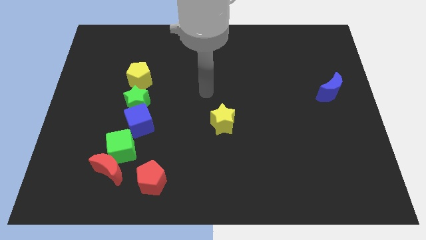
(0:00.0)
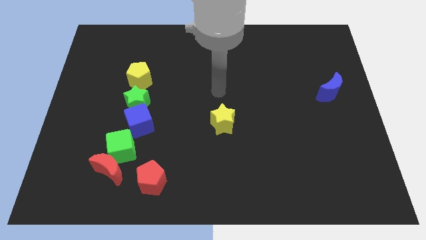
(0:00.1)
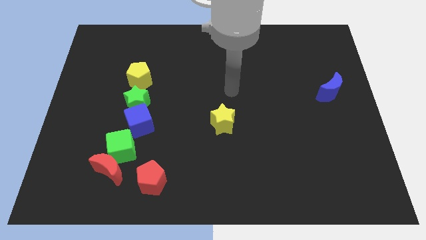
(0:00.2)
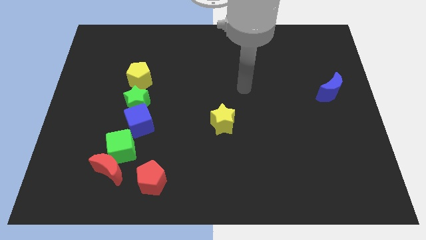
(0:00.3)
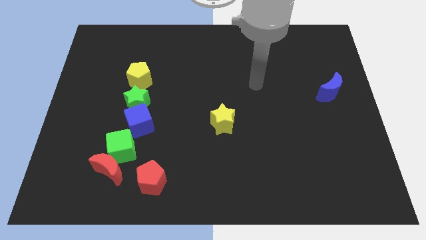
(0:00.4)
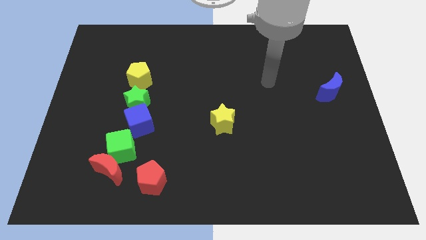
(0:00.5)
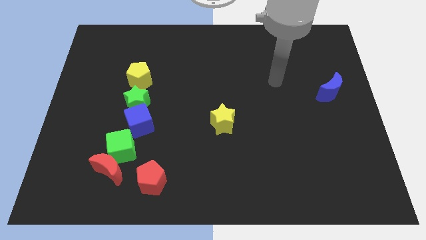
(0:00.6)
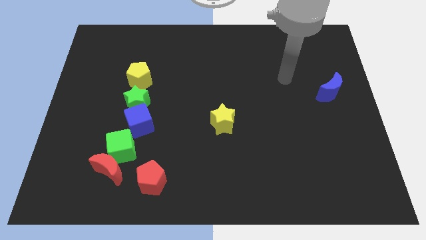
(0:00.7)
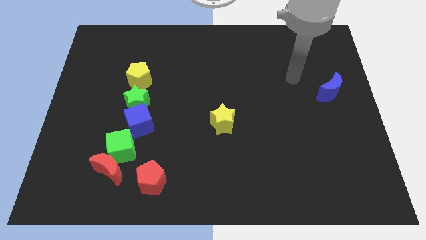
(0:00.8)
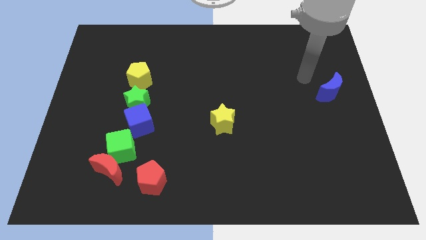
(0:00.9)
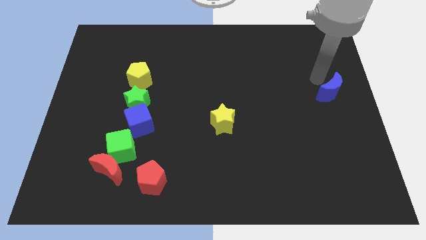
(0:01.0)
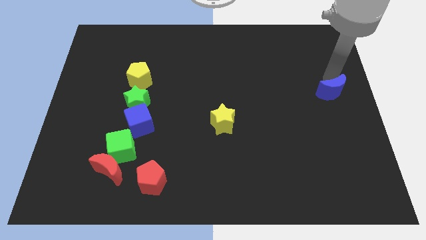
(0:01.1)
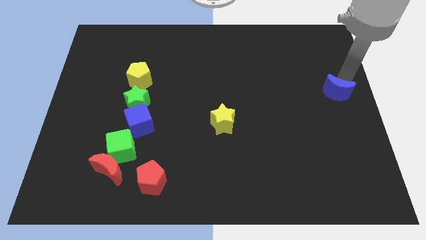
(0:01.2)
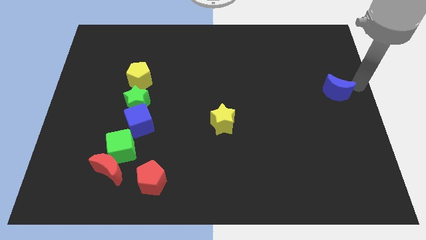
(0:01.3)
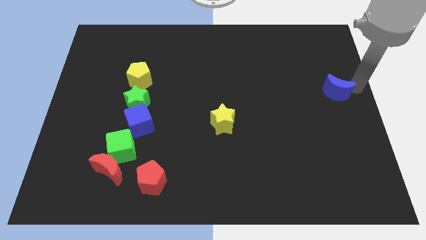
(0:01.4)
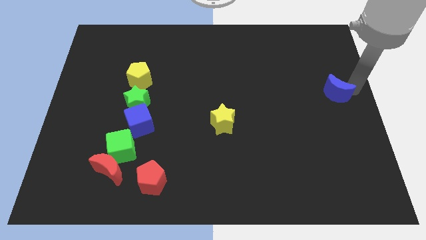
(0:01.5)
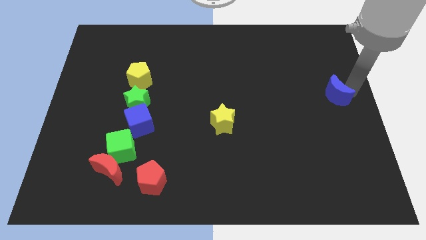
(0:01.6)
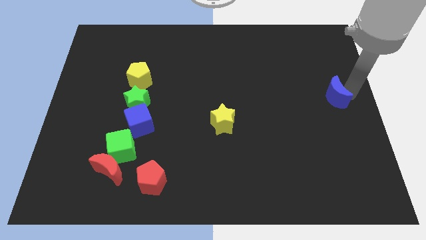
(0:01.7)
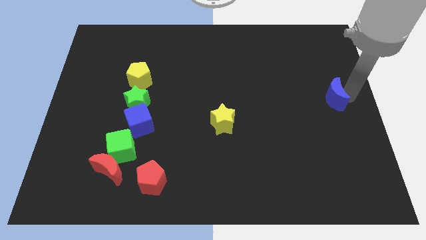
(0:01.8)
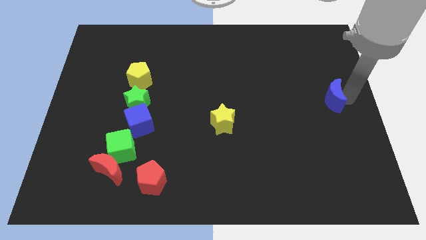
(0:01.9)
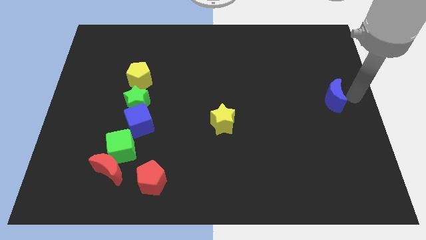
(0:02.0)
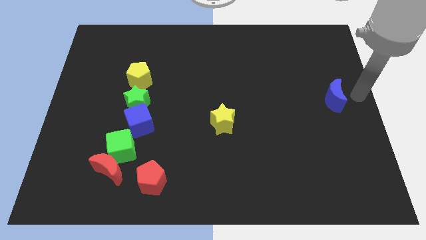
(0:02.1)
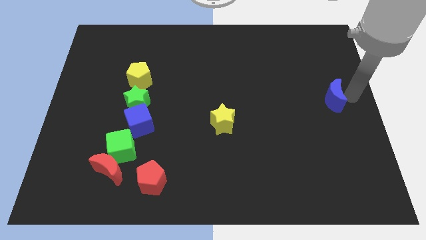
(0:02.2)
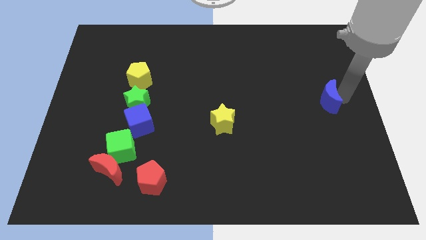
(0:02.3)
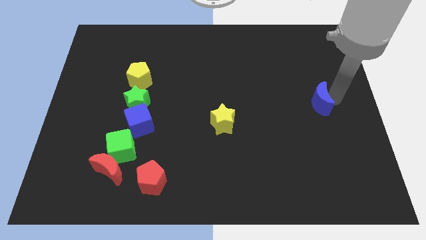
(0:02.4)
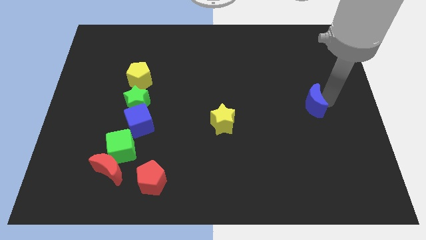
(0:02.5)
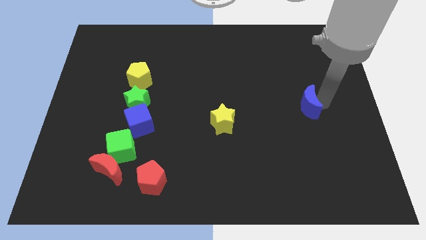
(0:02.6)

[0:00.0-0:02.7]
slide the blue moon a little diagonally down and to the left

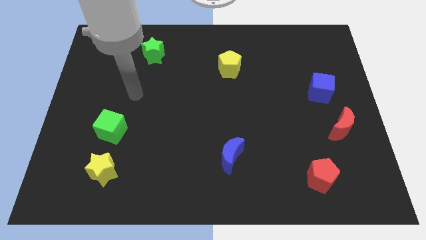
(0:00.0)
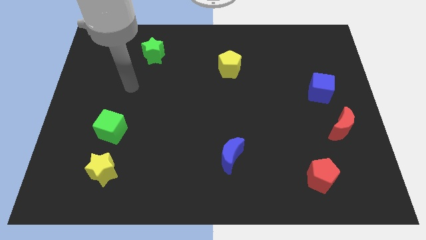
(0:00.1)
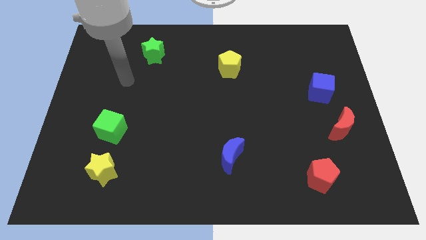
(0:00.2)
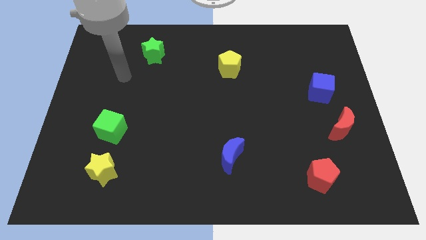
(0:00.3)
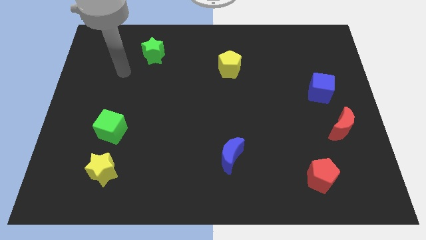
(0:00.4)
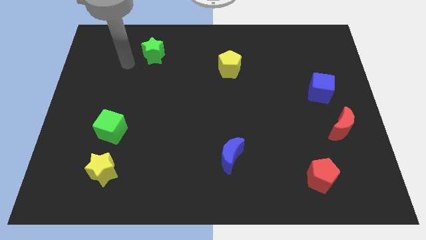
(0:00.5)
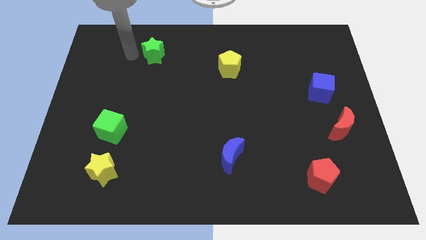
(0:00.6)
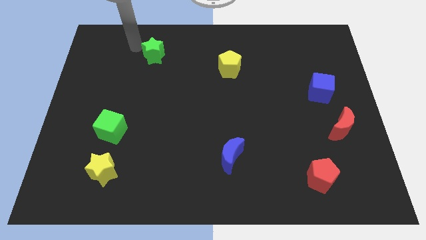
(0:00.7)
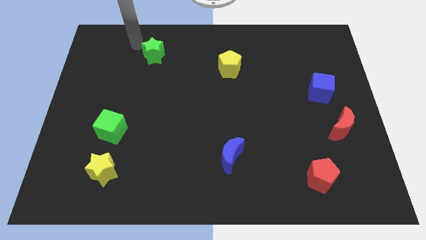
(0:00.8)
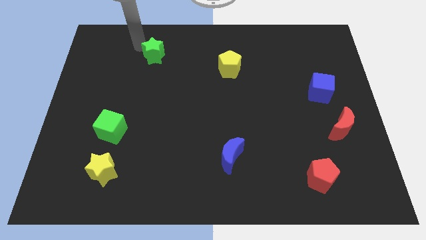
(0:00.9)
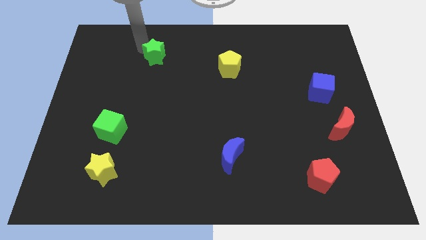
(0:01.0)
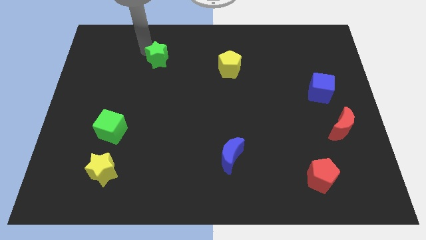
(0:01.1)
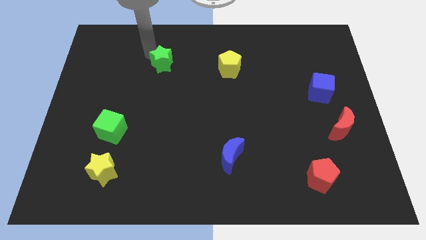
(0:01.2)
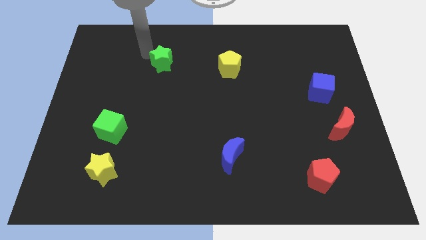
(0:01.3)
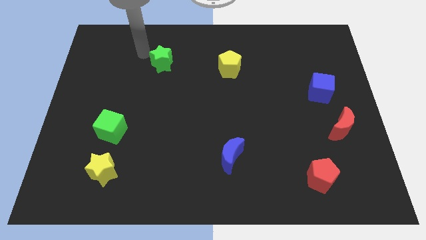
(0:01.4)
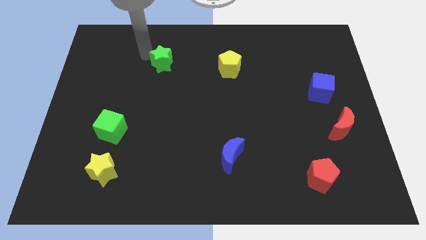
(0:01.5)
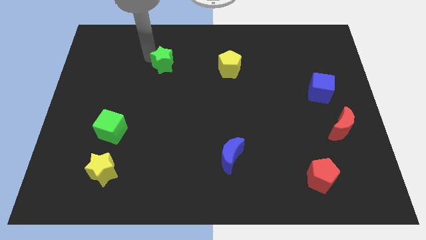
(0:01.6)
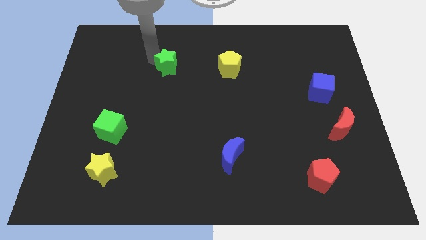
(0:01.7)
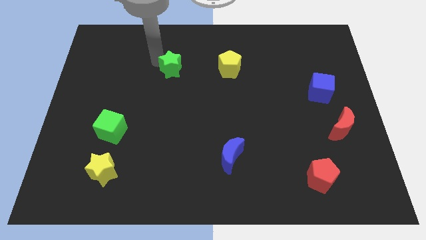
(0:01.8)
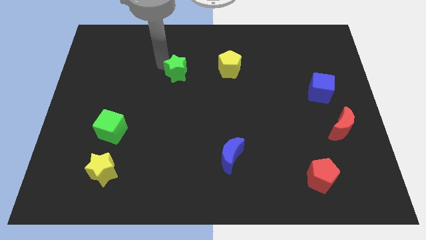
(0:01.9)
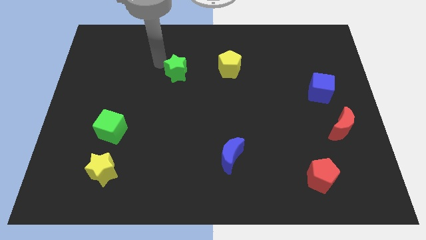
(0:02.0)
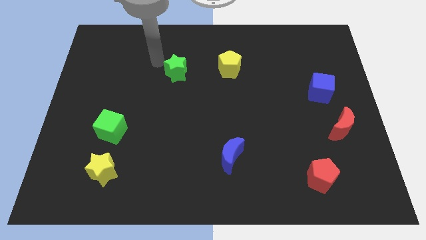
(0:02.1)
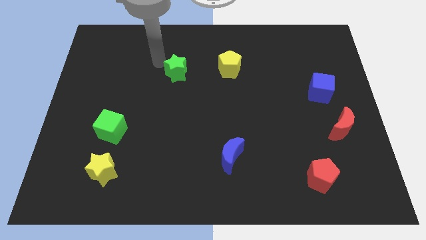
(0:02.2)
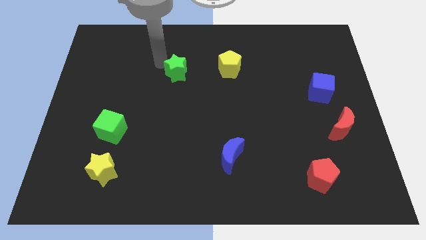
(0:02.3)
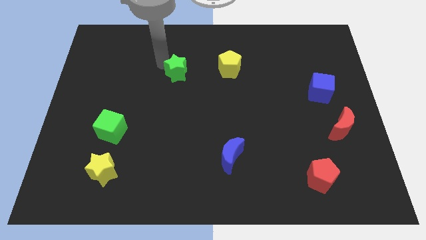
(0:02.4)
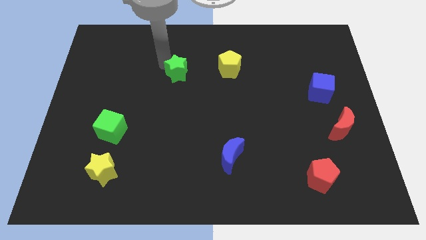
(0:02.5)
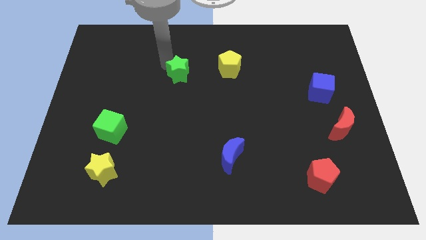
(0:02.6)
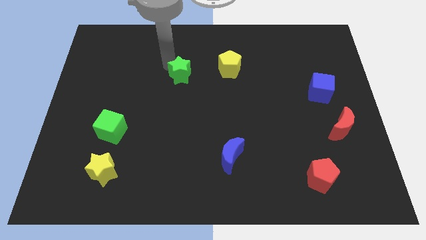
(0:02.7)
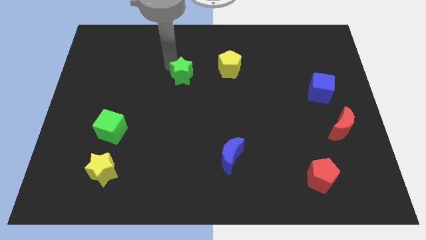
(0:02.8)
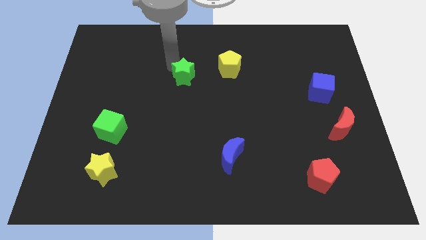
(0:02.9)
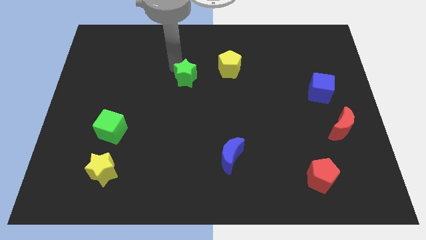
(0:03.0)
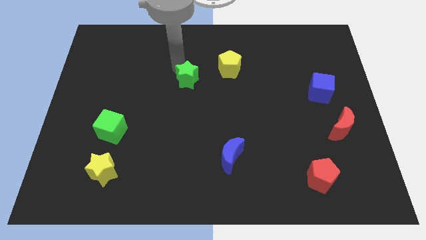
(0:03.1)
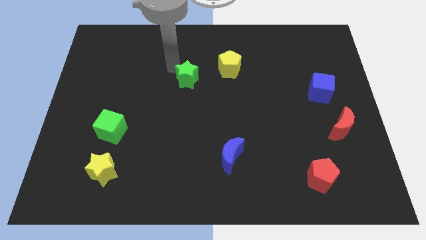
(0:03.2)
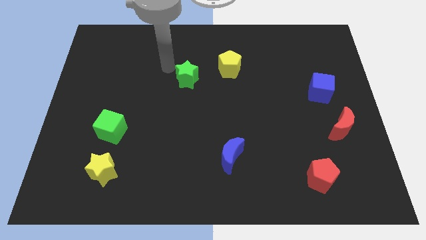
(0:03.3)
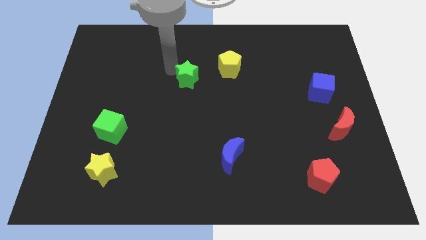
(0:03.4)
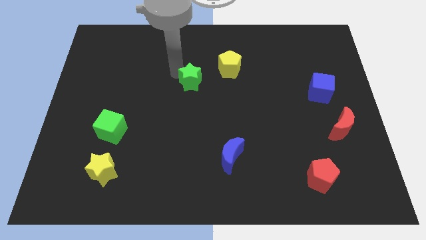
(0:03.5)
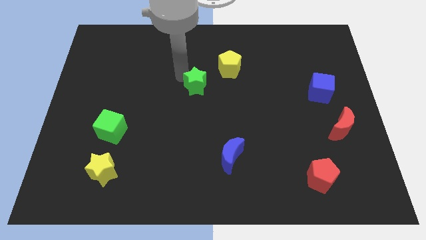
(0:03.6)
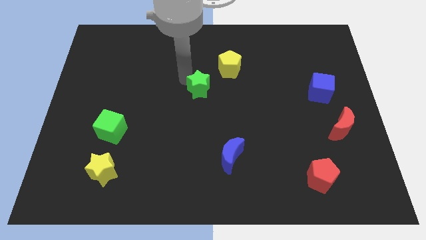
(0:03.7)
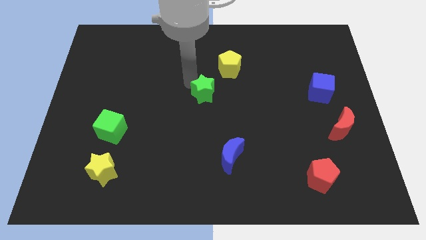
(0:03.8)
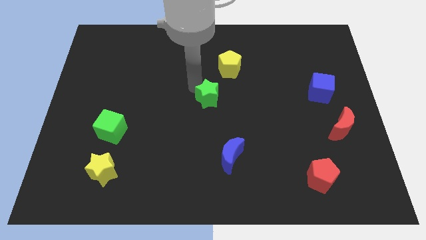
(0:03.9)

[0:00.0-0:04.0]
slide the green star downwards and to the right

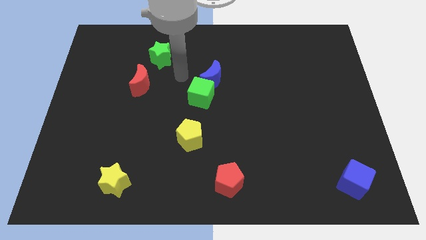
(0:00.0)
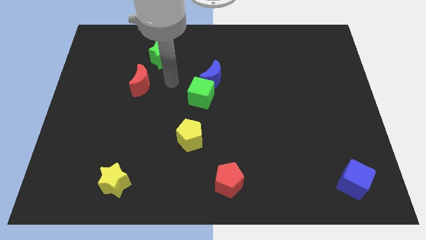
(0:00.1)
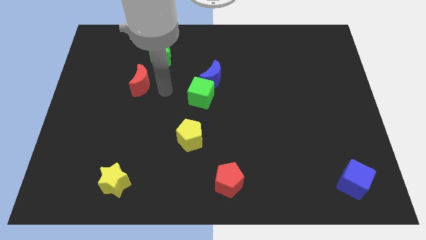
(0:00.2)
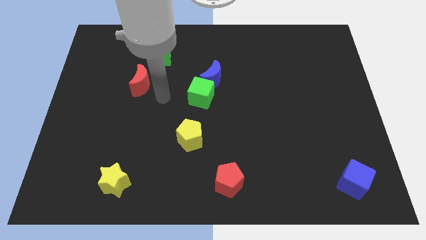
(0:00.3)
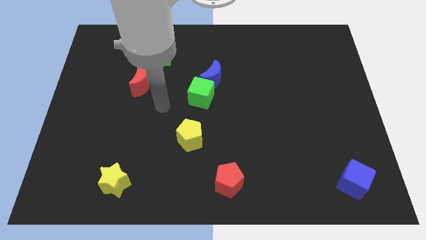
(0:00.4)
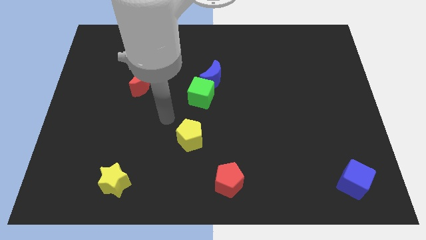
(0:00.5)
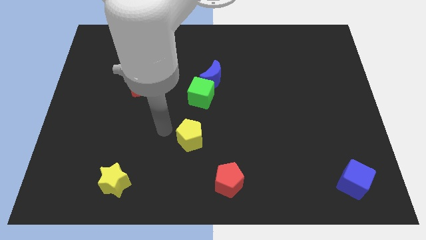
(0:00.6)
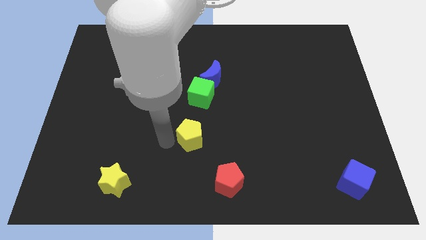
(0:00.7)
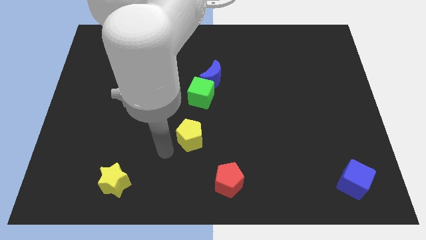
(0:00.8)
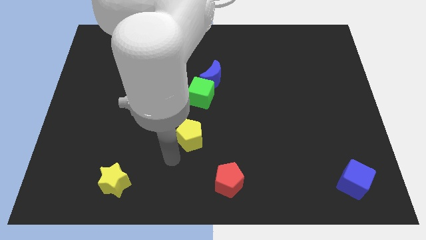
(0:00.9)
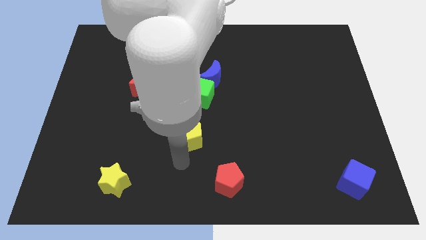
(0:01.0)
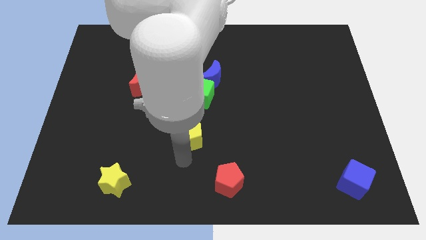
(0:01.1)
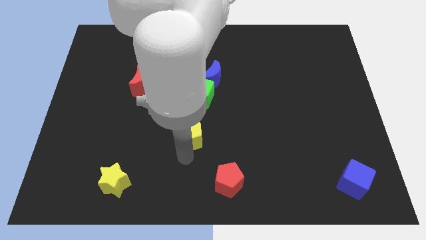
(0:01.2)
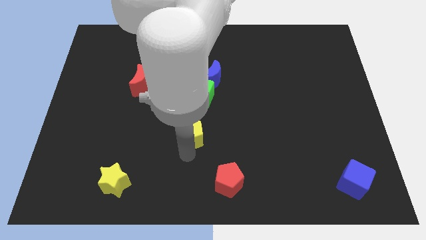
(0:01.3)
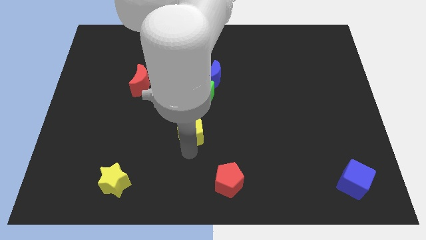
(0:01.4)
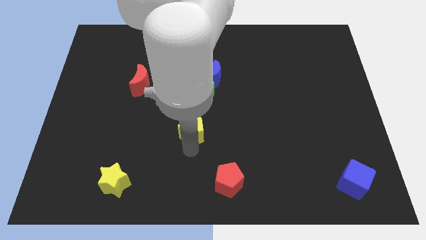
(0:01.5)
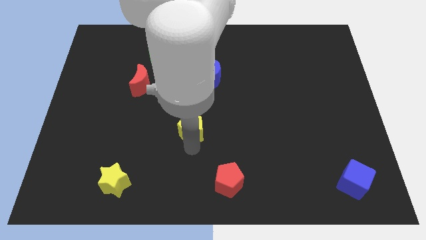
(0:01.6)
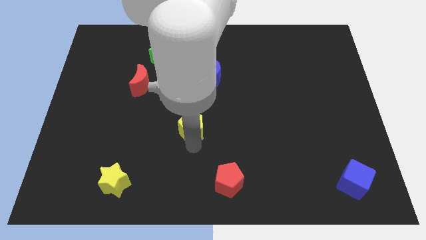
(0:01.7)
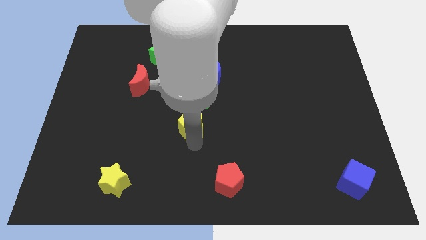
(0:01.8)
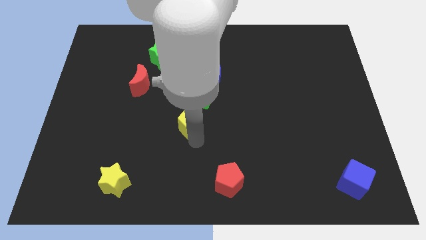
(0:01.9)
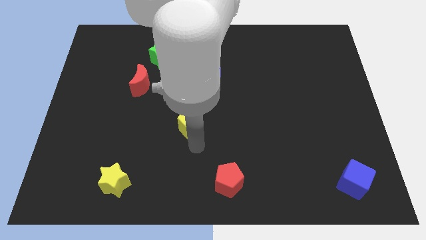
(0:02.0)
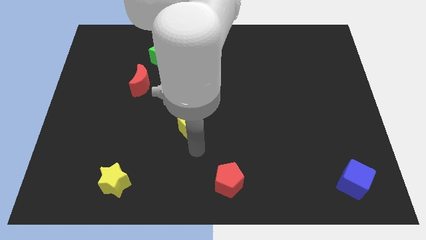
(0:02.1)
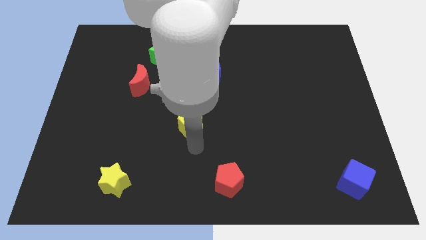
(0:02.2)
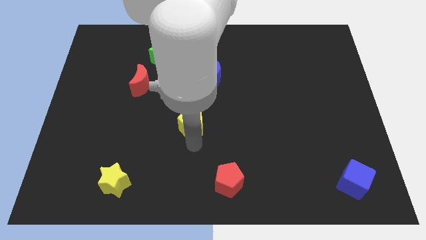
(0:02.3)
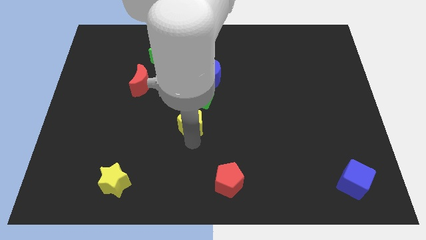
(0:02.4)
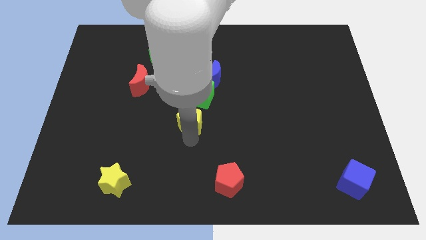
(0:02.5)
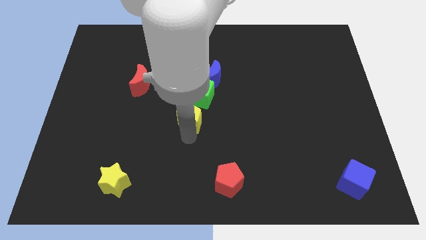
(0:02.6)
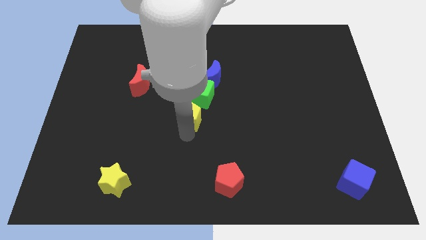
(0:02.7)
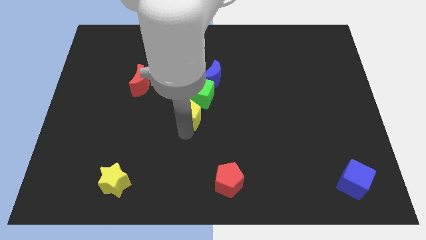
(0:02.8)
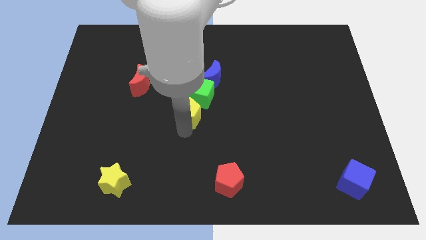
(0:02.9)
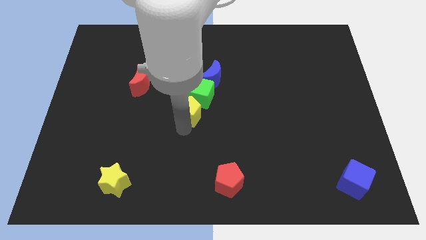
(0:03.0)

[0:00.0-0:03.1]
push the yellow pentagon somewhat upwards
